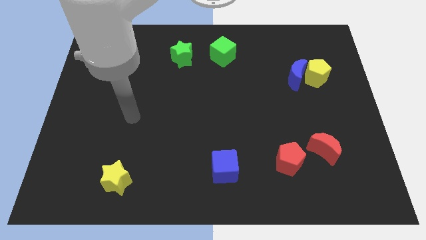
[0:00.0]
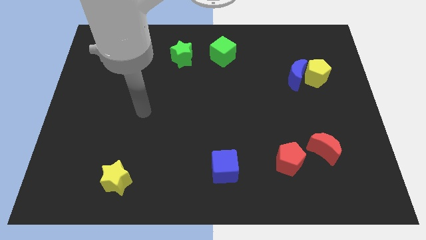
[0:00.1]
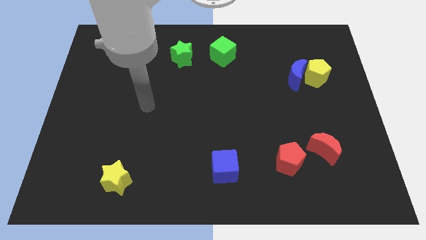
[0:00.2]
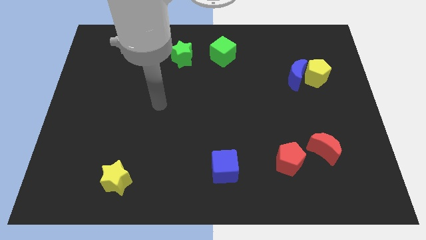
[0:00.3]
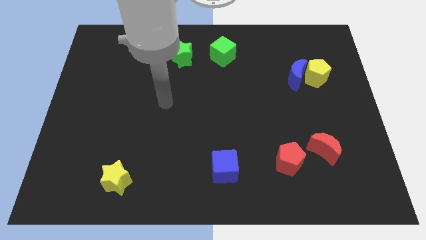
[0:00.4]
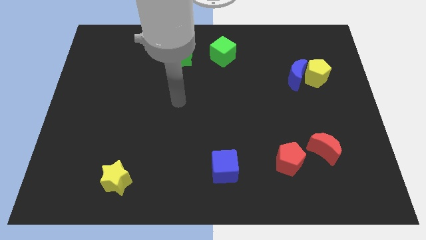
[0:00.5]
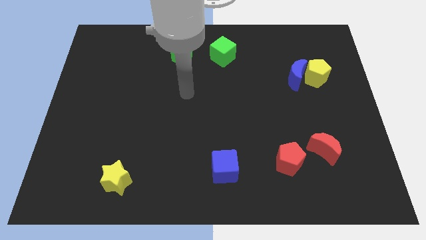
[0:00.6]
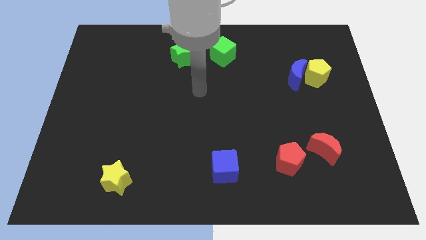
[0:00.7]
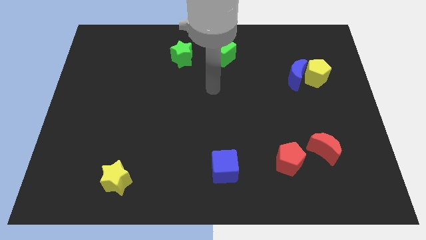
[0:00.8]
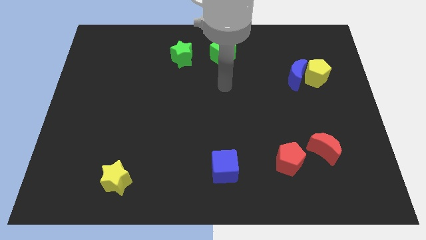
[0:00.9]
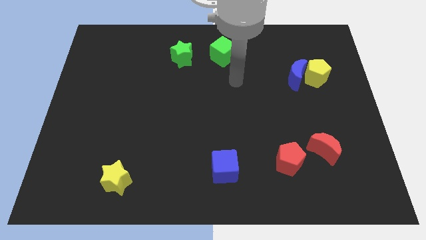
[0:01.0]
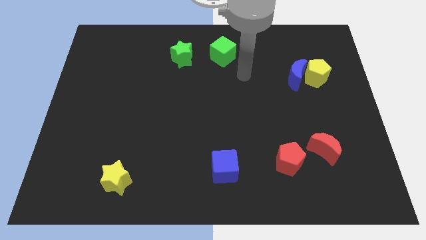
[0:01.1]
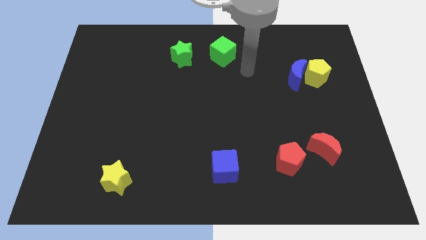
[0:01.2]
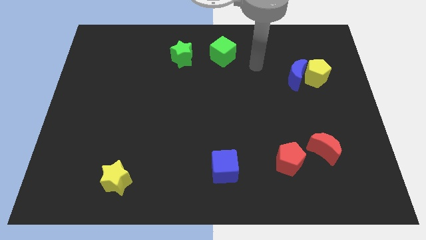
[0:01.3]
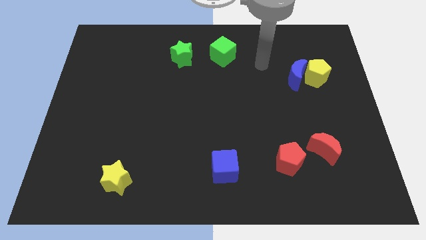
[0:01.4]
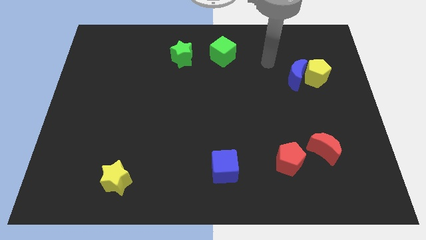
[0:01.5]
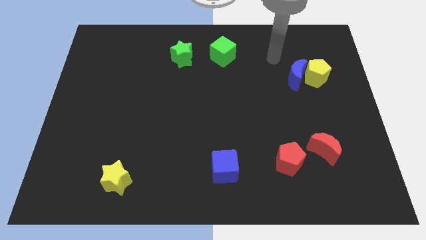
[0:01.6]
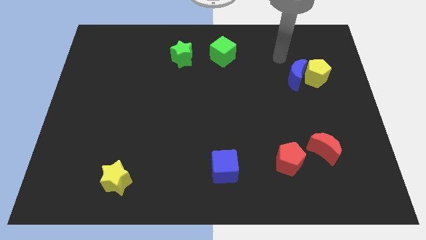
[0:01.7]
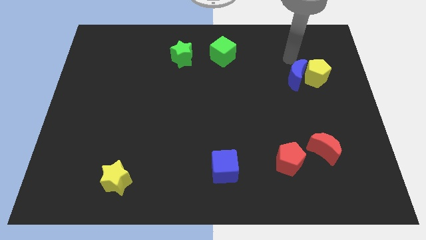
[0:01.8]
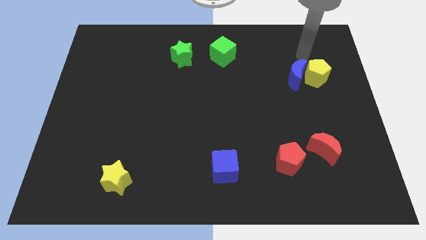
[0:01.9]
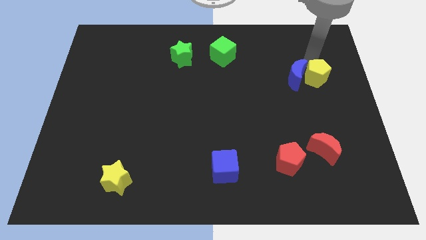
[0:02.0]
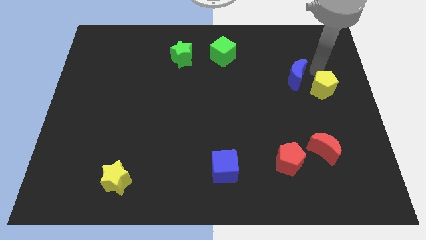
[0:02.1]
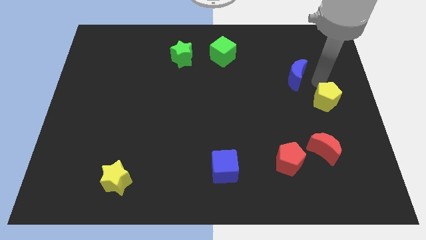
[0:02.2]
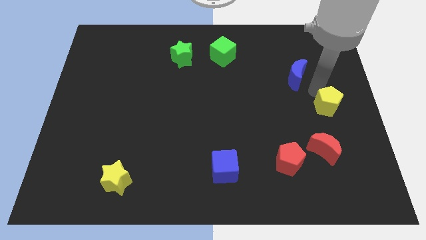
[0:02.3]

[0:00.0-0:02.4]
separate the blue moon from the yellow pentagon

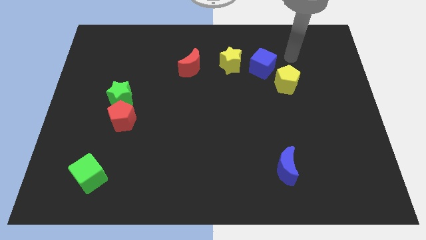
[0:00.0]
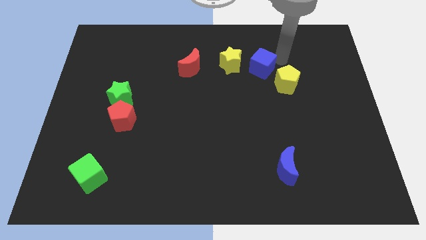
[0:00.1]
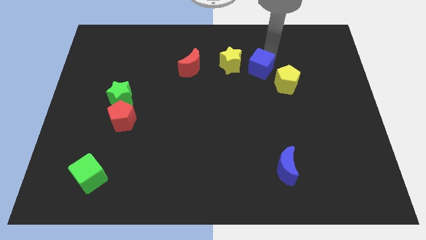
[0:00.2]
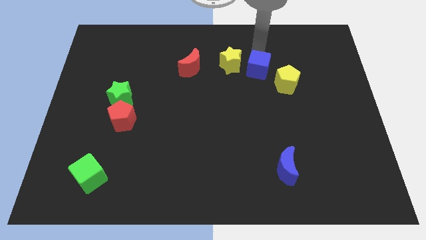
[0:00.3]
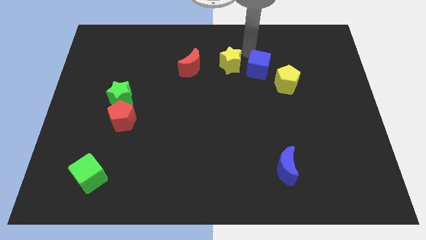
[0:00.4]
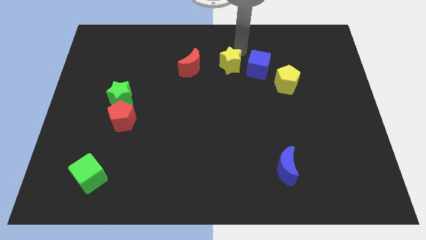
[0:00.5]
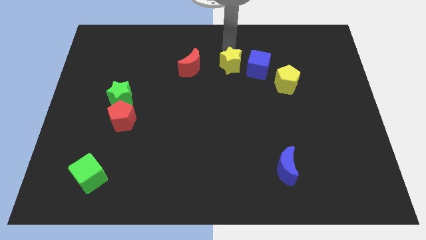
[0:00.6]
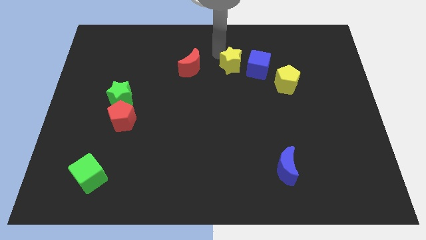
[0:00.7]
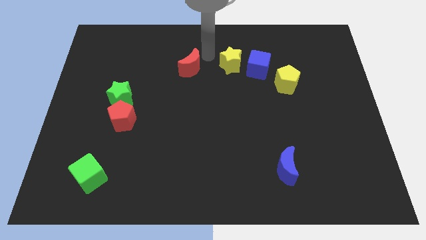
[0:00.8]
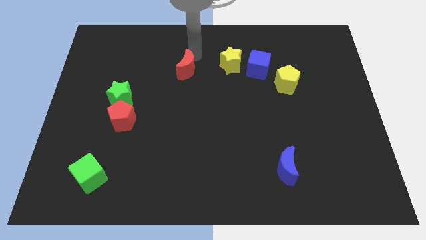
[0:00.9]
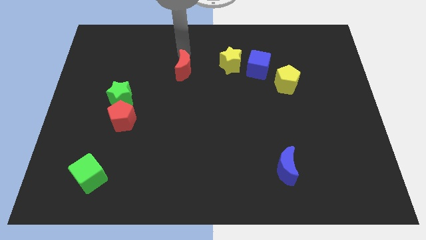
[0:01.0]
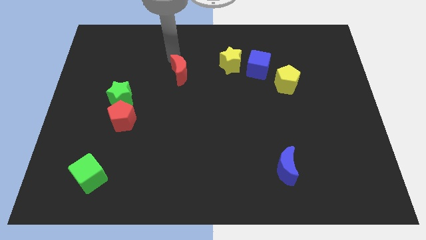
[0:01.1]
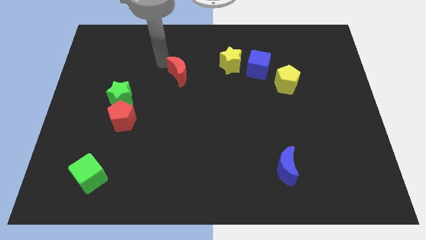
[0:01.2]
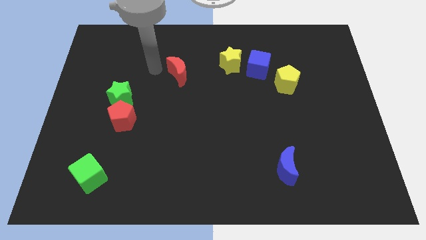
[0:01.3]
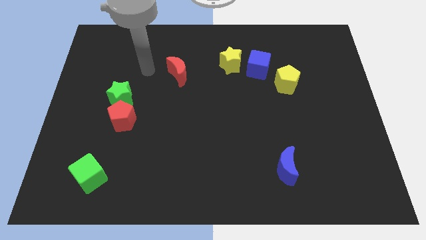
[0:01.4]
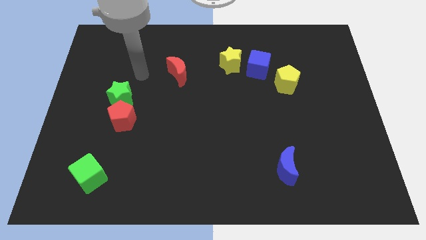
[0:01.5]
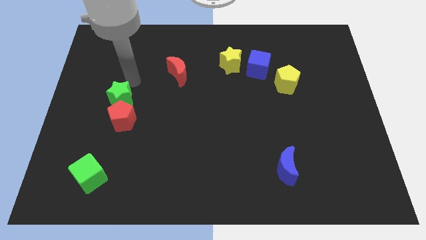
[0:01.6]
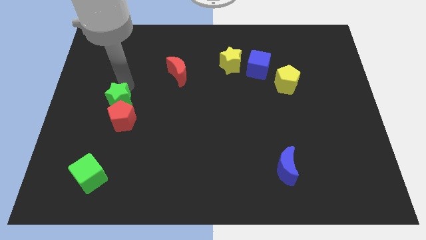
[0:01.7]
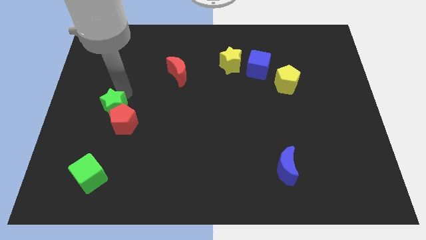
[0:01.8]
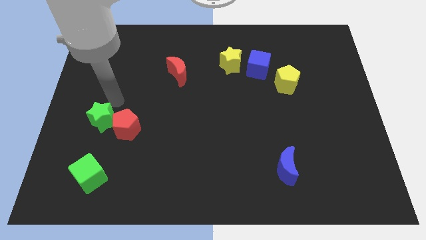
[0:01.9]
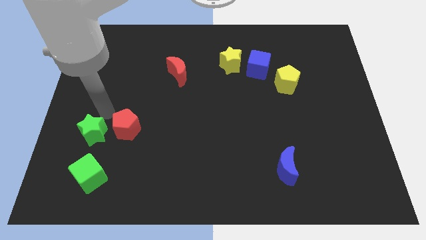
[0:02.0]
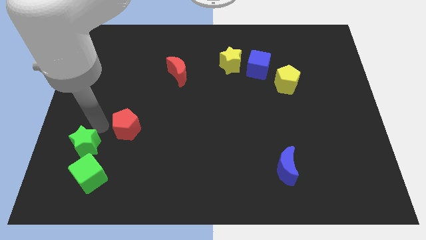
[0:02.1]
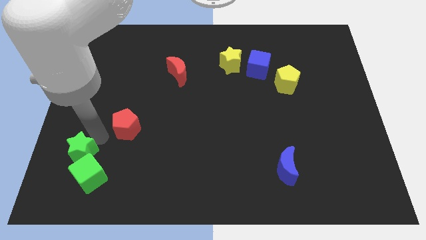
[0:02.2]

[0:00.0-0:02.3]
separate the red pentagon from the green star

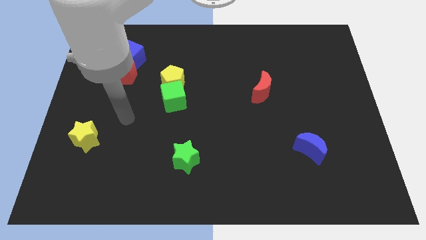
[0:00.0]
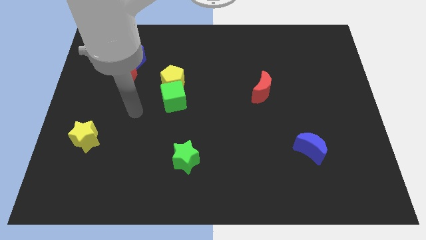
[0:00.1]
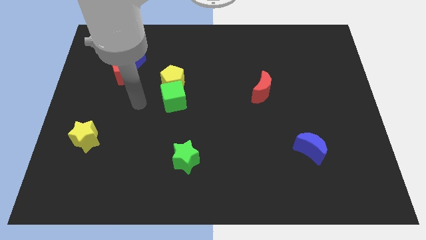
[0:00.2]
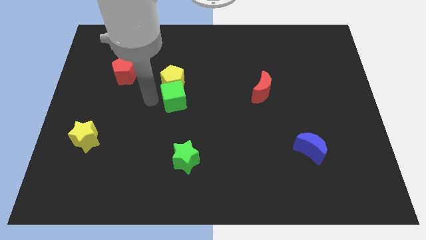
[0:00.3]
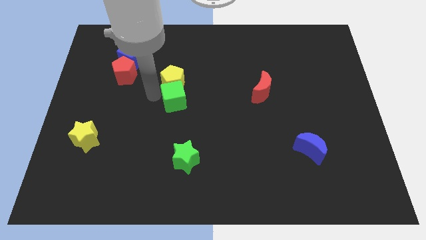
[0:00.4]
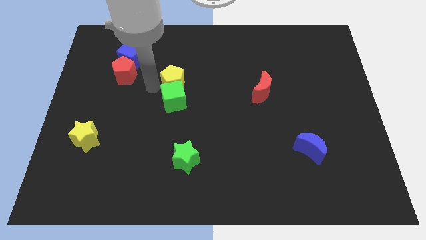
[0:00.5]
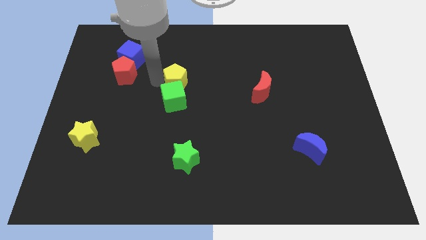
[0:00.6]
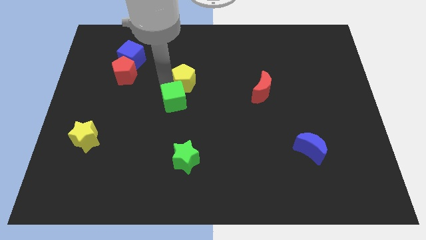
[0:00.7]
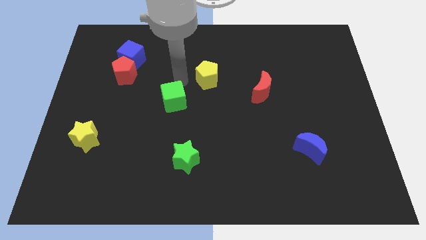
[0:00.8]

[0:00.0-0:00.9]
pull the green cube apart from the yellow pentagon

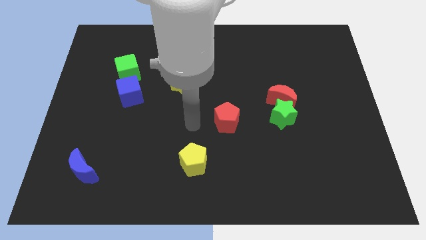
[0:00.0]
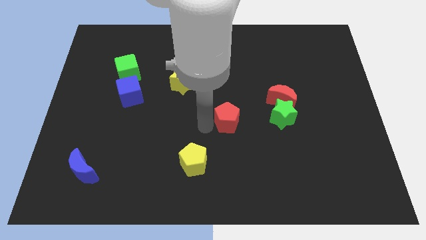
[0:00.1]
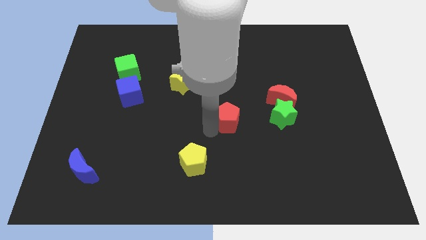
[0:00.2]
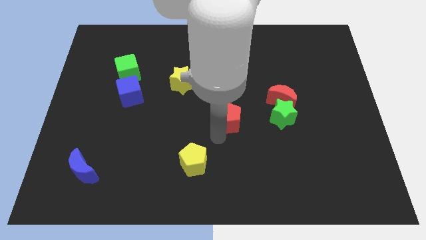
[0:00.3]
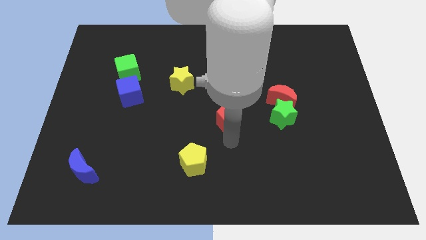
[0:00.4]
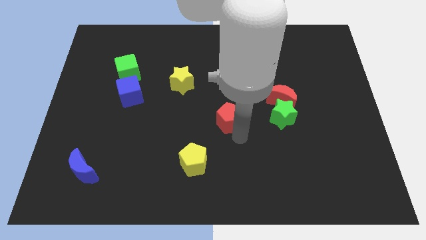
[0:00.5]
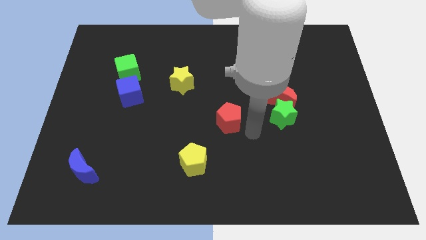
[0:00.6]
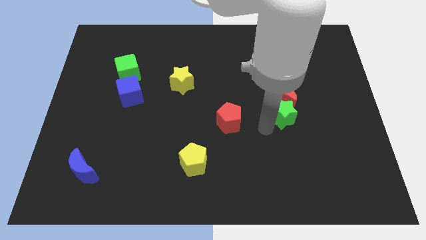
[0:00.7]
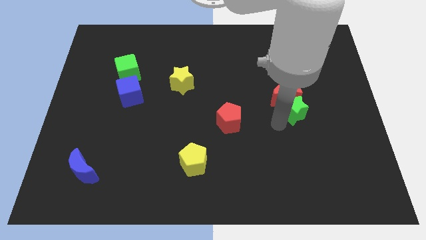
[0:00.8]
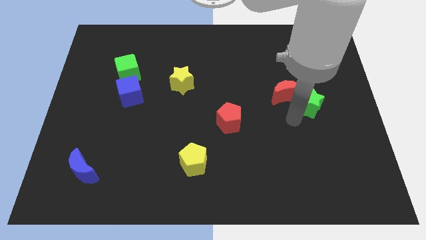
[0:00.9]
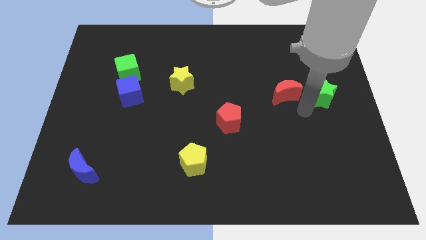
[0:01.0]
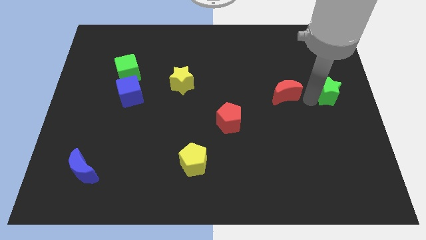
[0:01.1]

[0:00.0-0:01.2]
pull the red moon apart from the green star

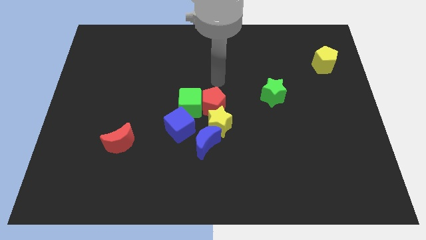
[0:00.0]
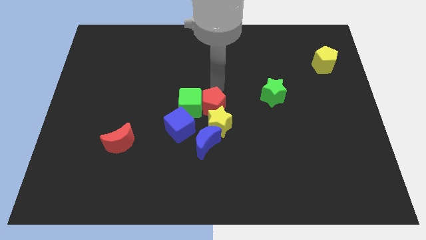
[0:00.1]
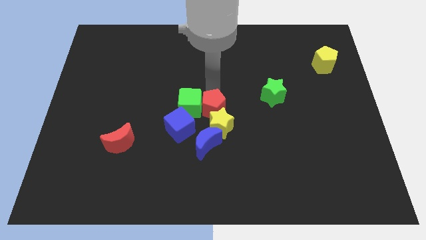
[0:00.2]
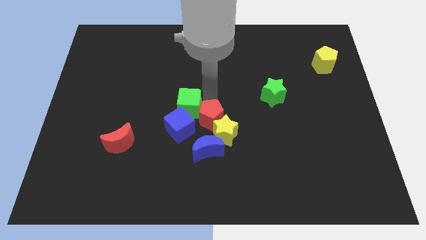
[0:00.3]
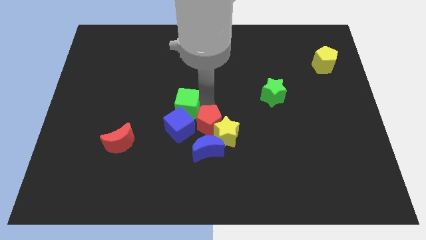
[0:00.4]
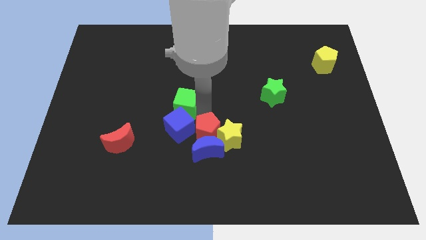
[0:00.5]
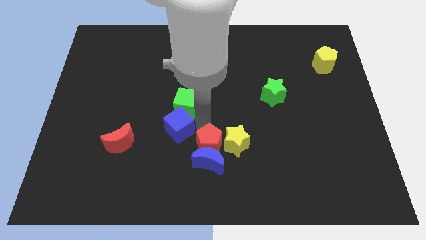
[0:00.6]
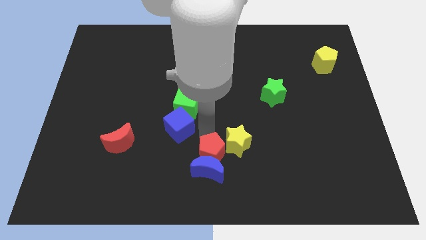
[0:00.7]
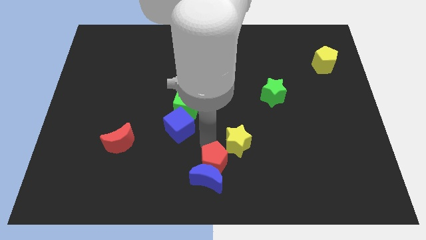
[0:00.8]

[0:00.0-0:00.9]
separate the blue moon from the yellow star and blue cube

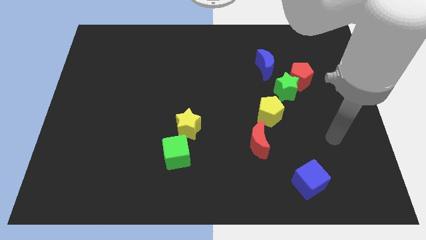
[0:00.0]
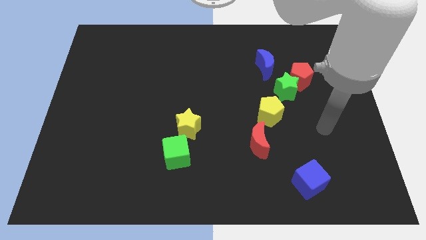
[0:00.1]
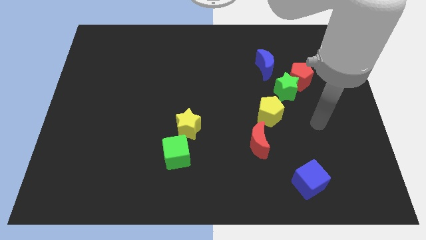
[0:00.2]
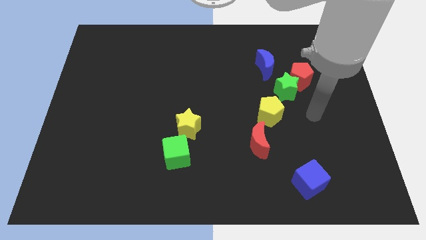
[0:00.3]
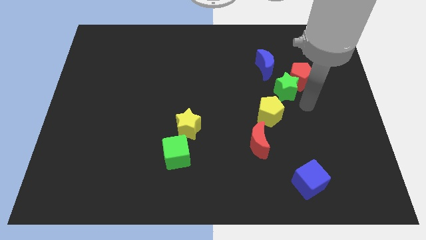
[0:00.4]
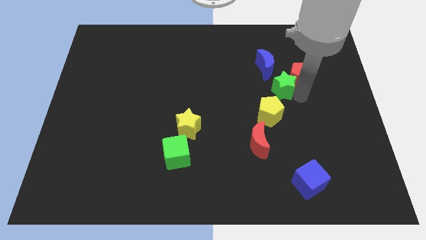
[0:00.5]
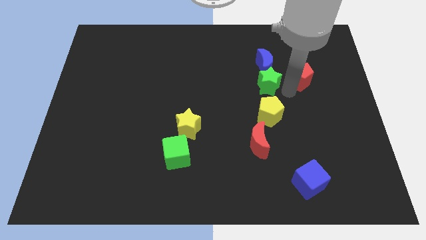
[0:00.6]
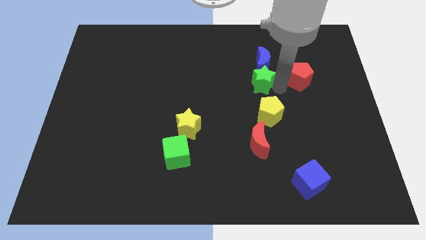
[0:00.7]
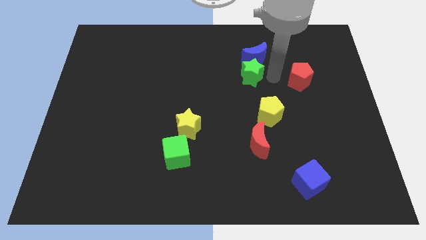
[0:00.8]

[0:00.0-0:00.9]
separate the red pentagon from the green star and blue moon

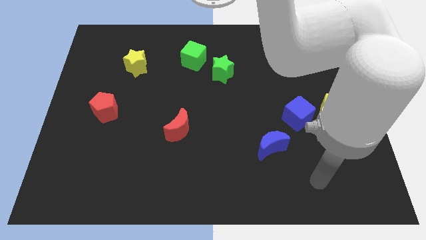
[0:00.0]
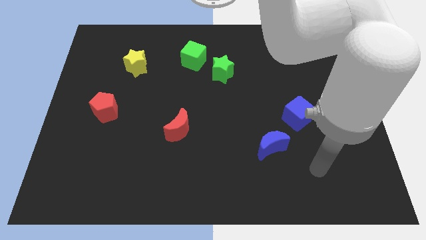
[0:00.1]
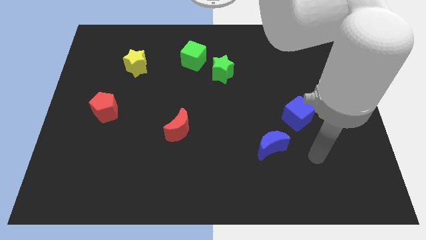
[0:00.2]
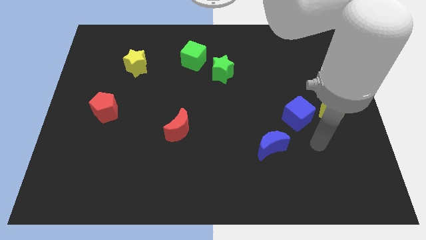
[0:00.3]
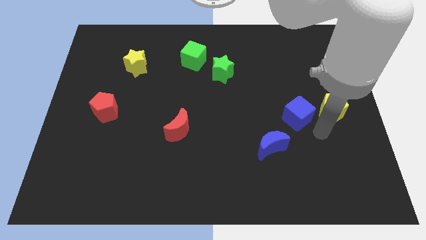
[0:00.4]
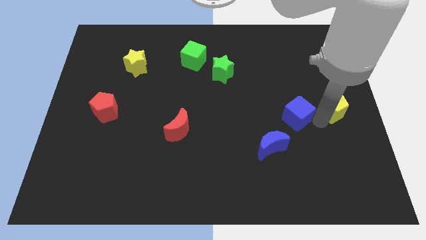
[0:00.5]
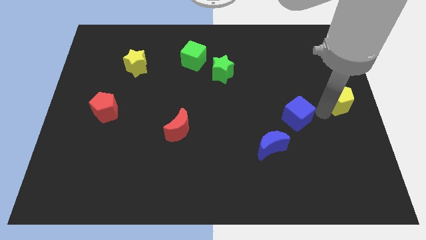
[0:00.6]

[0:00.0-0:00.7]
pull the blue cube apart from the yellow pentagon
